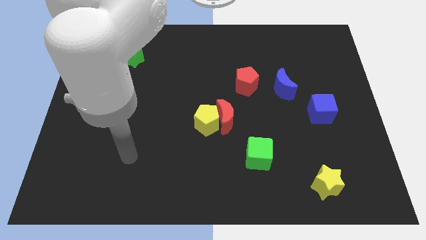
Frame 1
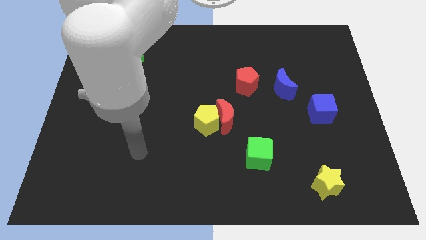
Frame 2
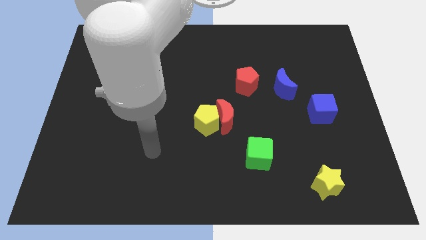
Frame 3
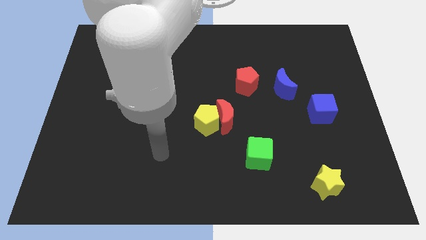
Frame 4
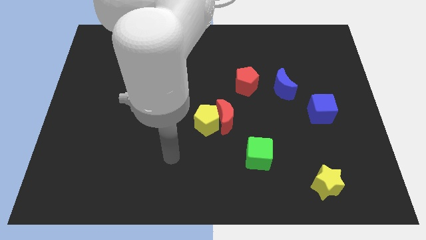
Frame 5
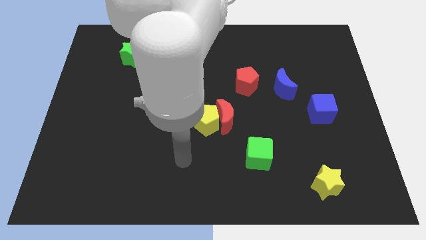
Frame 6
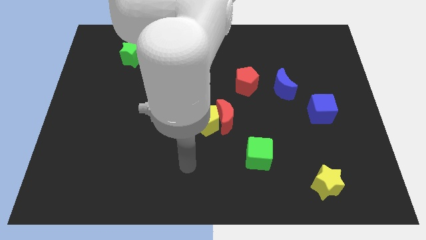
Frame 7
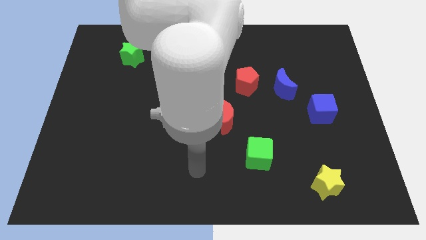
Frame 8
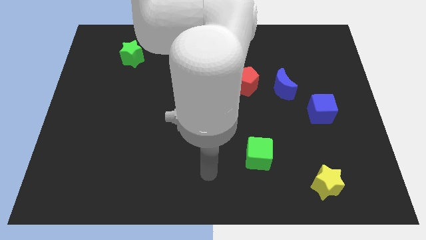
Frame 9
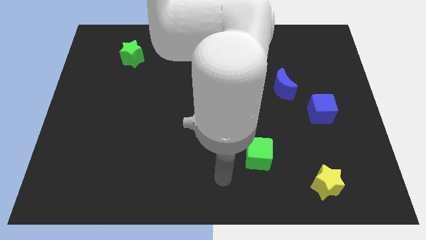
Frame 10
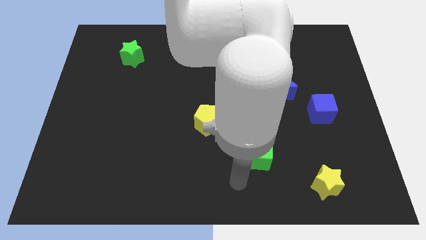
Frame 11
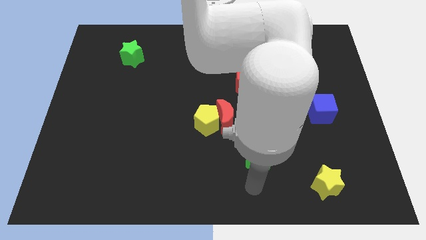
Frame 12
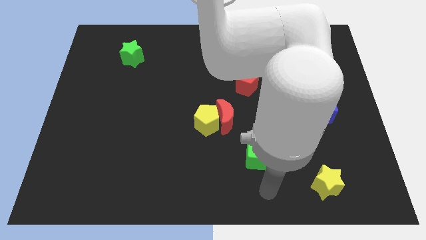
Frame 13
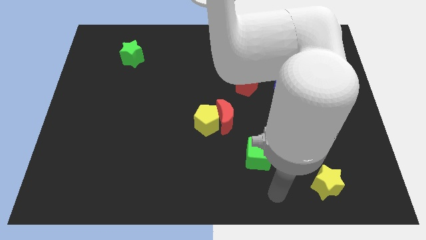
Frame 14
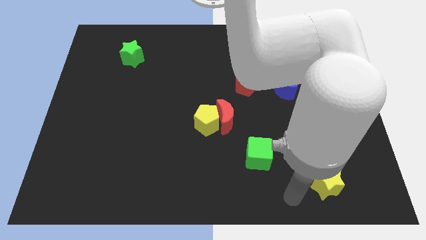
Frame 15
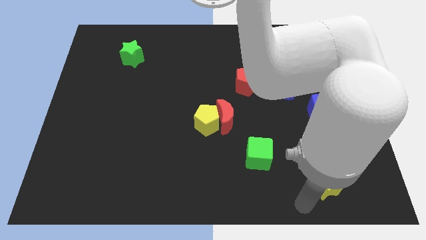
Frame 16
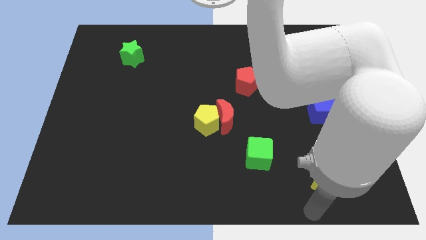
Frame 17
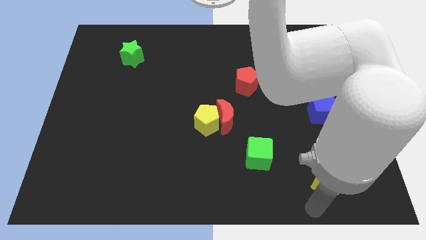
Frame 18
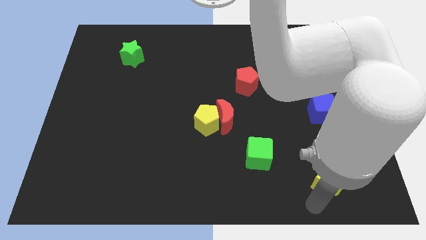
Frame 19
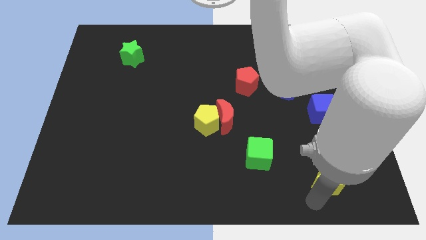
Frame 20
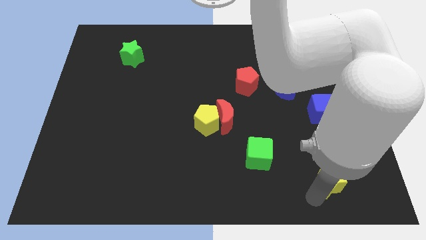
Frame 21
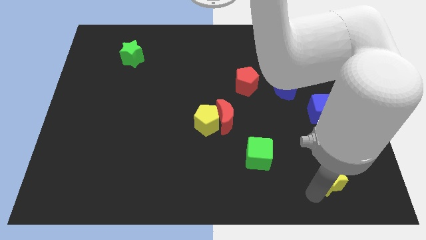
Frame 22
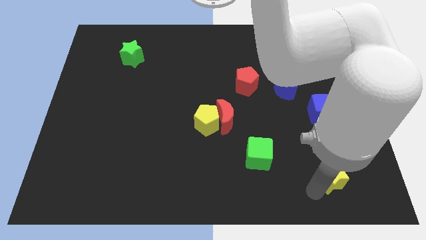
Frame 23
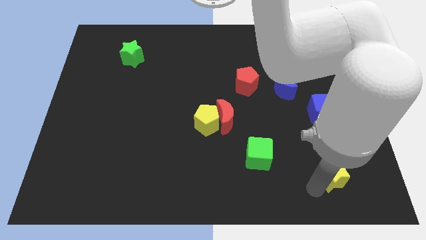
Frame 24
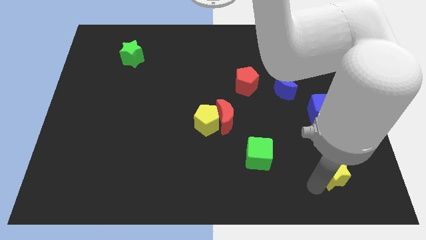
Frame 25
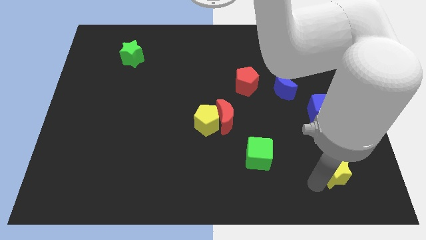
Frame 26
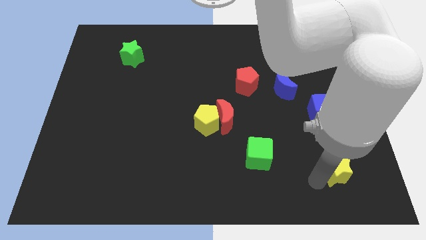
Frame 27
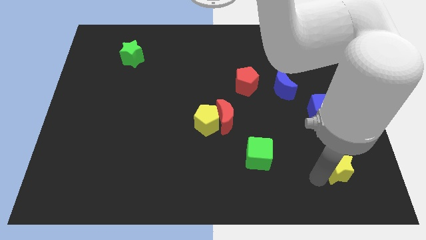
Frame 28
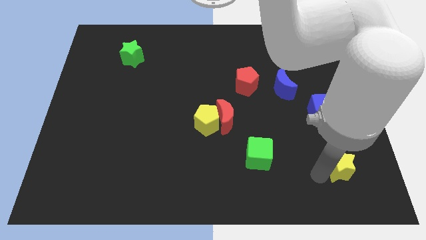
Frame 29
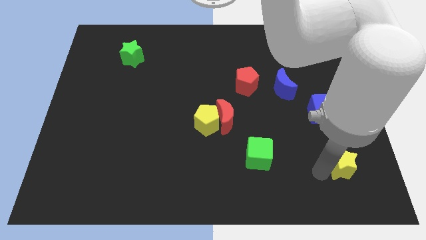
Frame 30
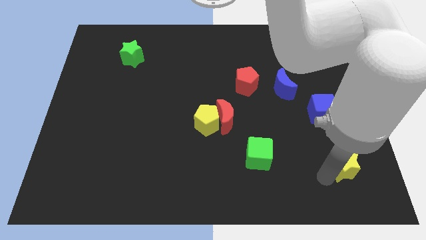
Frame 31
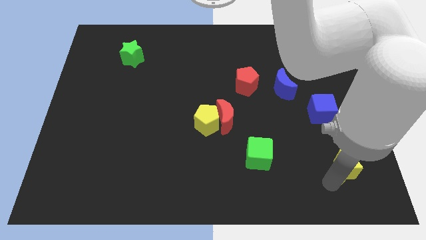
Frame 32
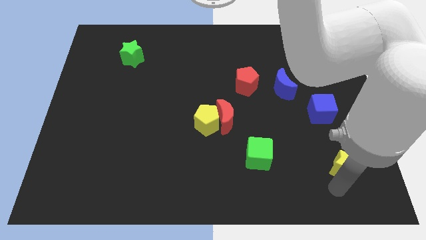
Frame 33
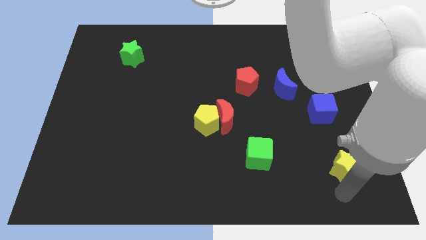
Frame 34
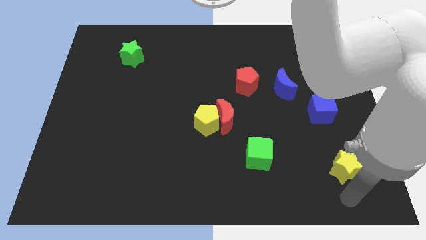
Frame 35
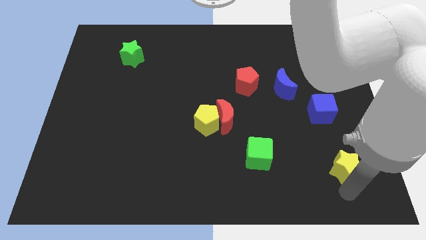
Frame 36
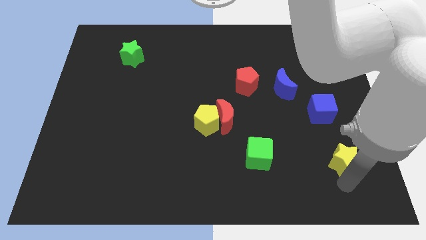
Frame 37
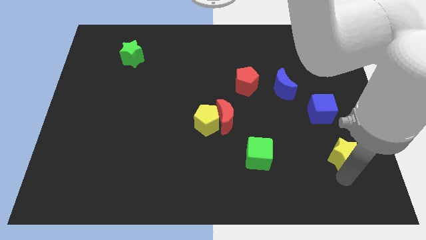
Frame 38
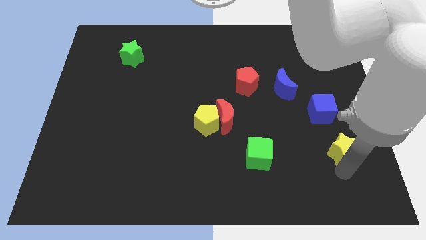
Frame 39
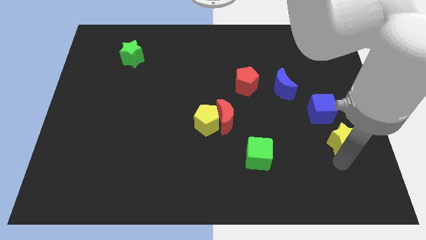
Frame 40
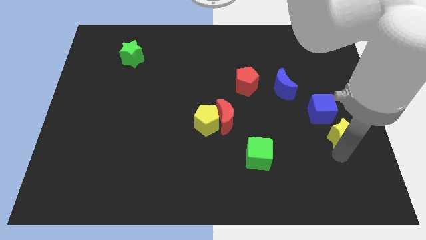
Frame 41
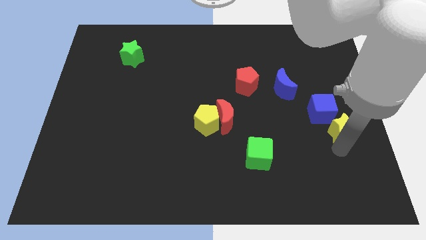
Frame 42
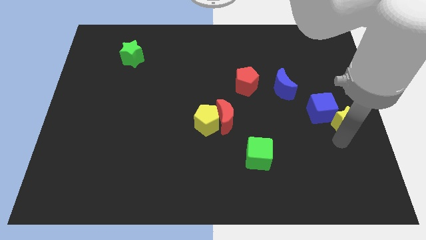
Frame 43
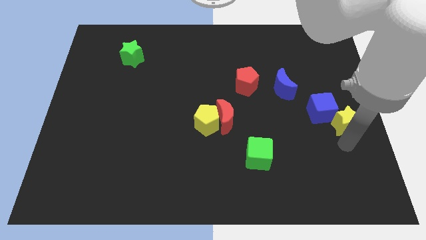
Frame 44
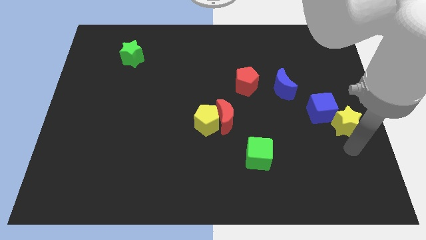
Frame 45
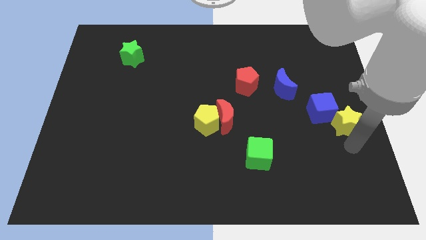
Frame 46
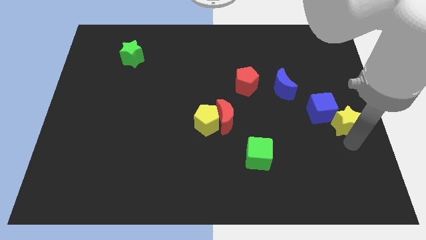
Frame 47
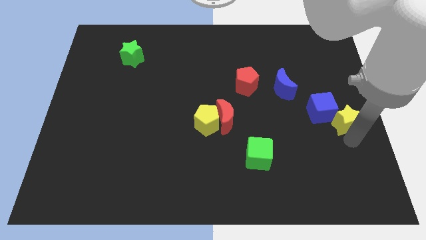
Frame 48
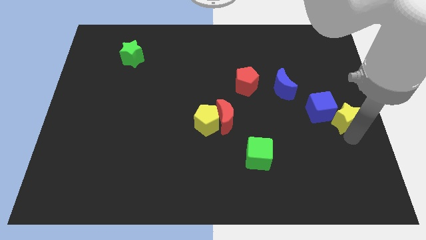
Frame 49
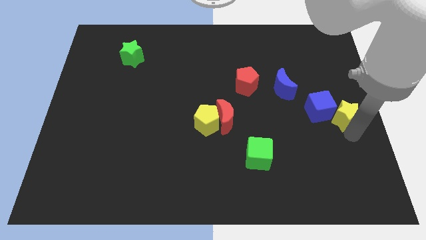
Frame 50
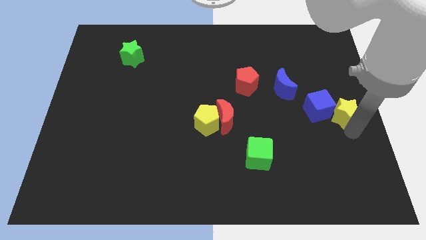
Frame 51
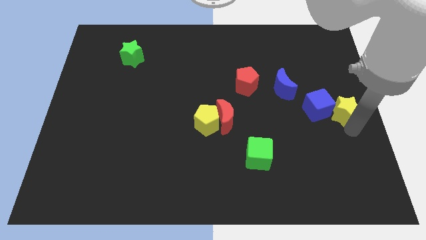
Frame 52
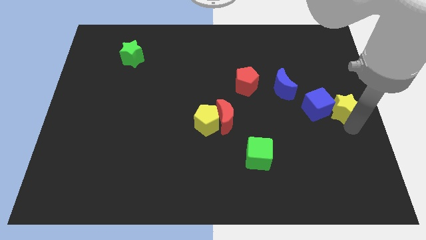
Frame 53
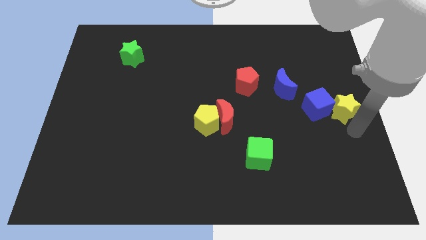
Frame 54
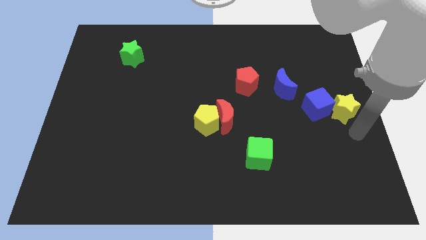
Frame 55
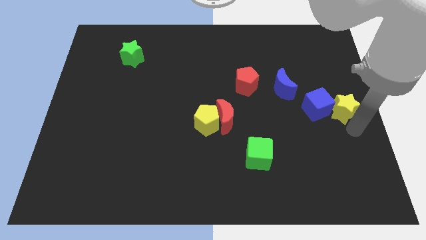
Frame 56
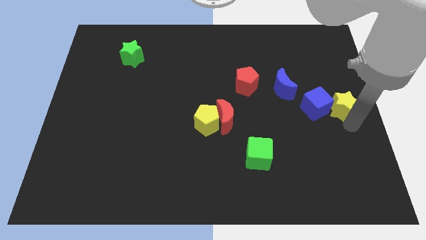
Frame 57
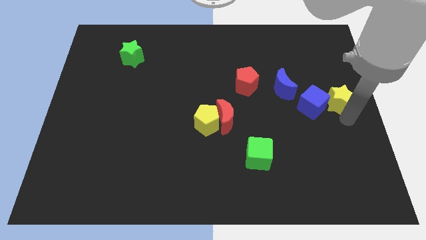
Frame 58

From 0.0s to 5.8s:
slide the yellow star just right of the blue moon

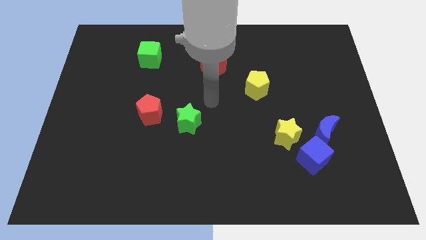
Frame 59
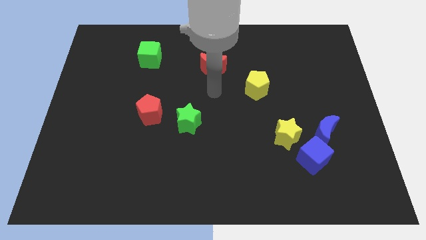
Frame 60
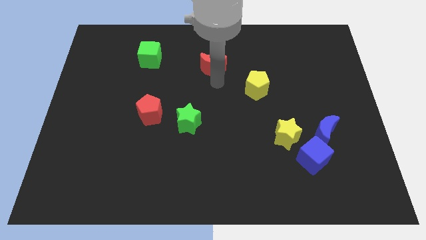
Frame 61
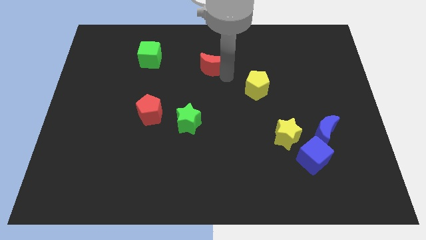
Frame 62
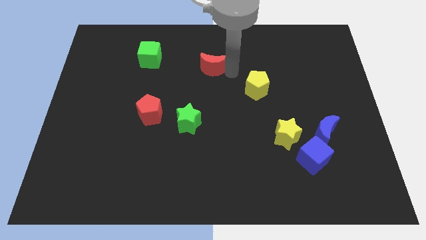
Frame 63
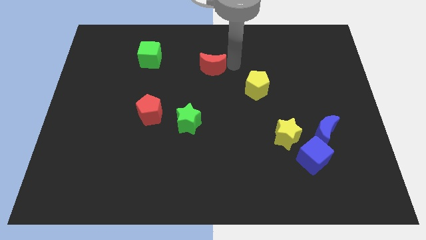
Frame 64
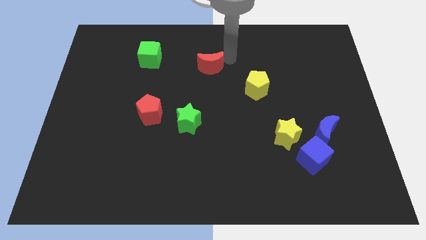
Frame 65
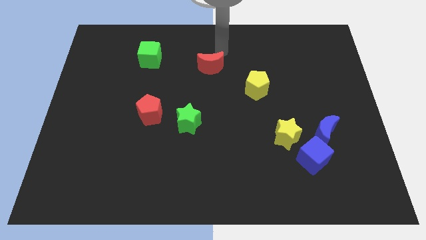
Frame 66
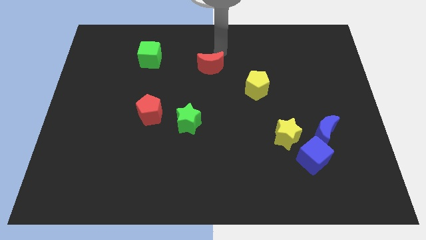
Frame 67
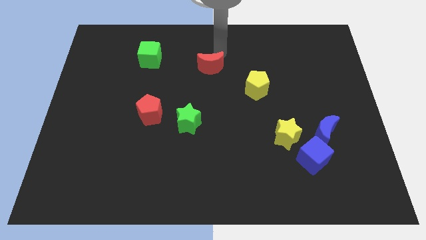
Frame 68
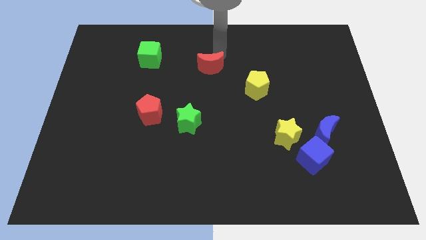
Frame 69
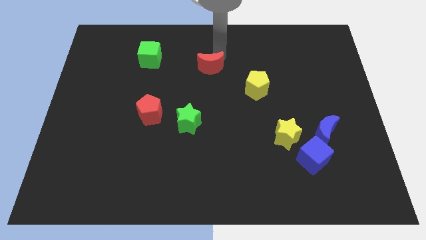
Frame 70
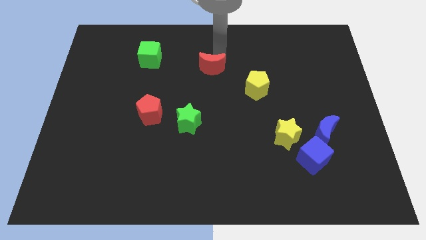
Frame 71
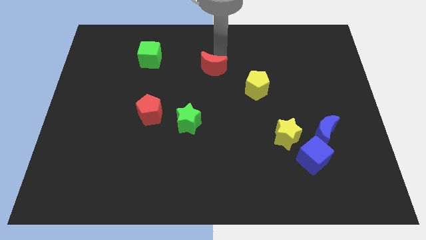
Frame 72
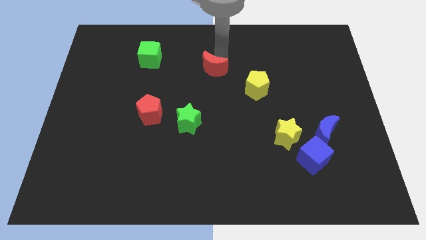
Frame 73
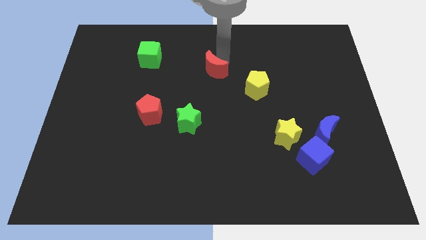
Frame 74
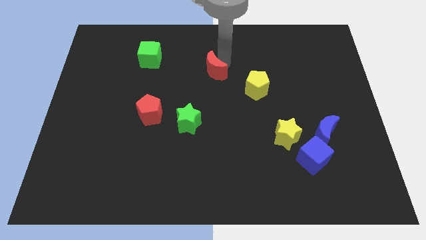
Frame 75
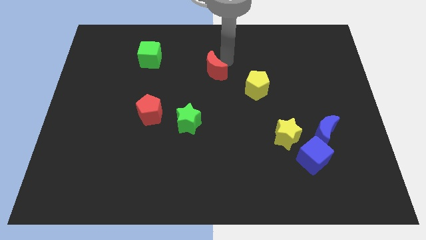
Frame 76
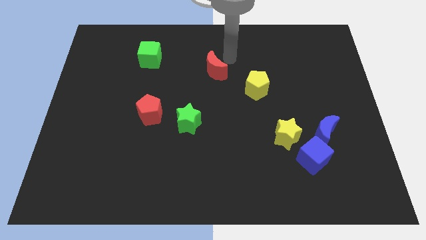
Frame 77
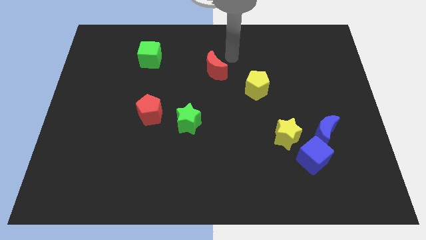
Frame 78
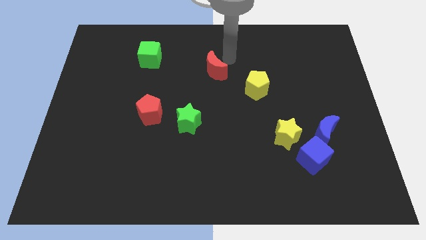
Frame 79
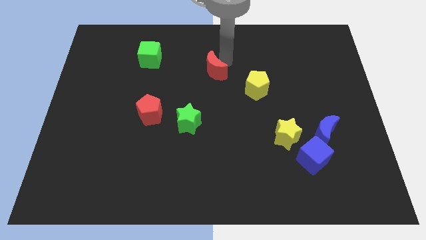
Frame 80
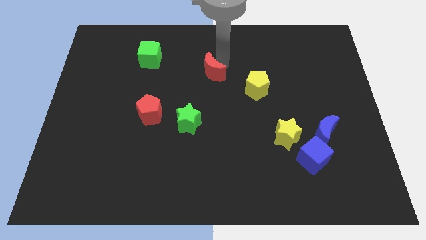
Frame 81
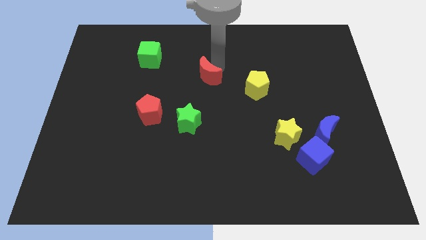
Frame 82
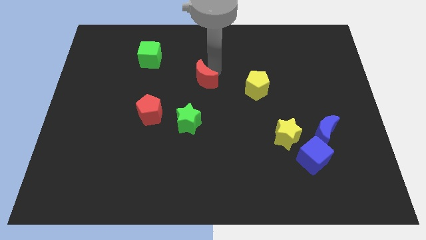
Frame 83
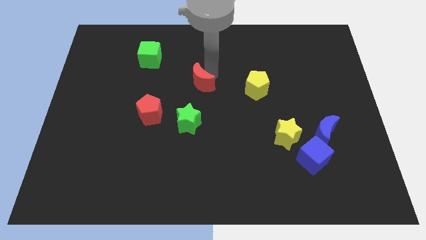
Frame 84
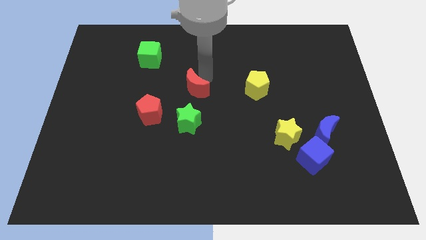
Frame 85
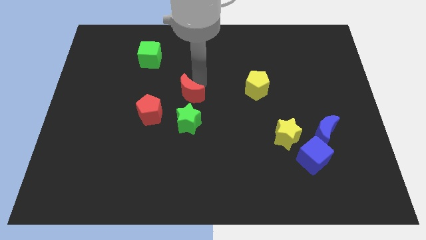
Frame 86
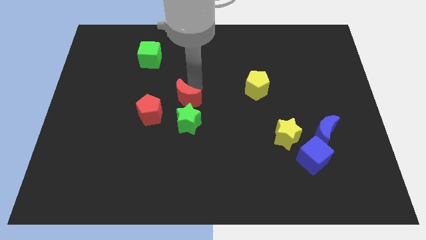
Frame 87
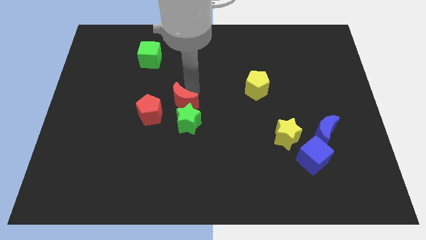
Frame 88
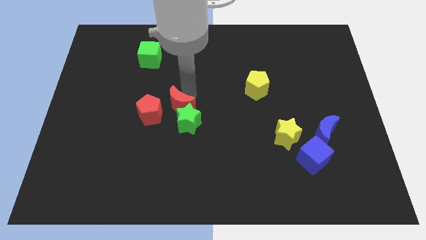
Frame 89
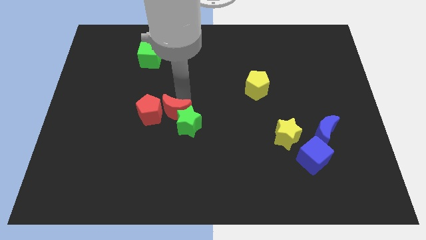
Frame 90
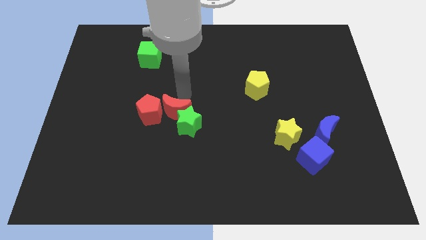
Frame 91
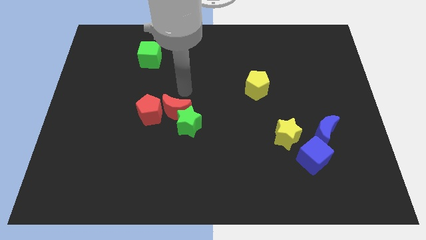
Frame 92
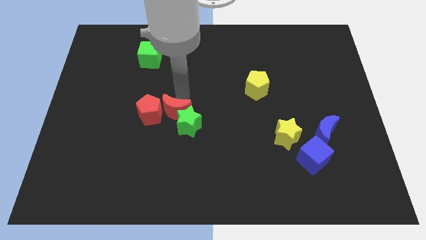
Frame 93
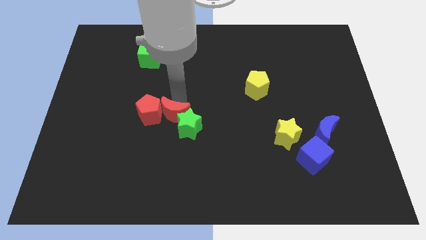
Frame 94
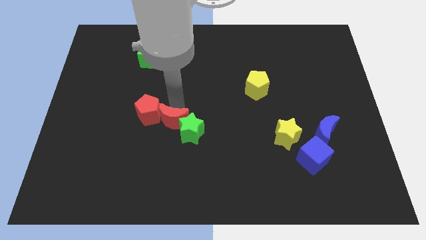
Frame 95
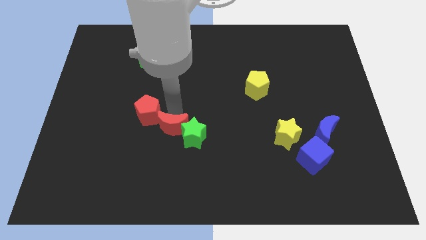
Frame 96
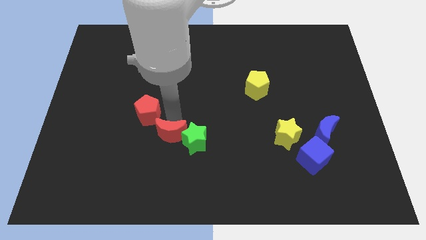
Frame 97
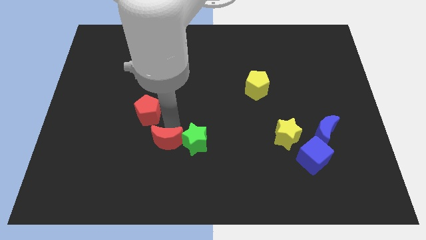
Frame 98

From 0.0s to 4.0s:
move the red moon to the bottom left side of the green star
